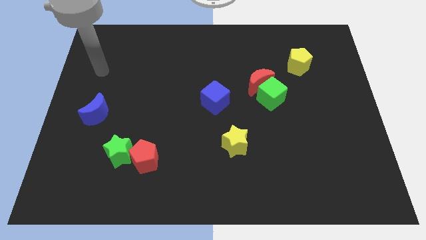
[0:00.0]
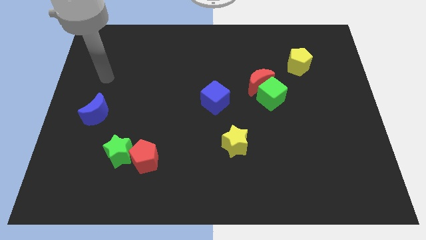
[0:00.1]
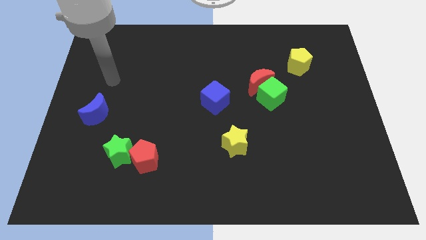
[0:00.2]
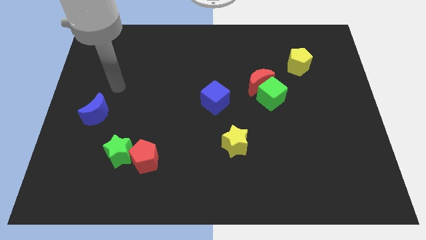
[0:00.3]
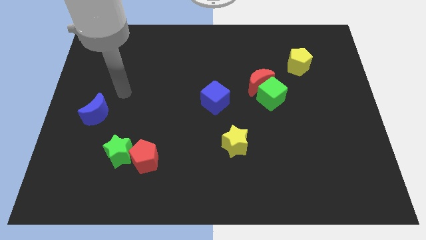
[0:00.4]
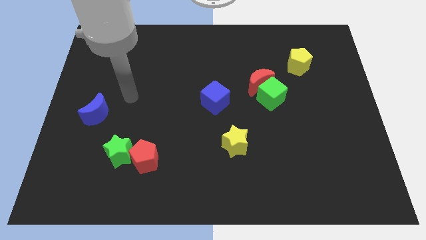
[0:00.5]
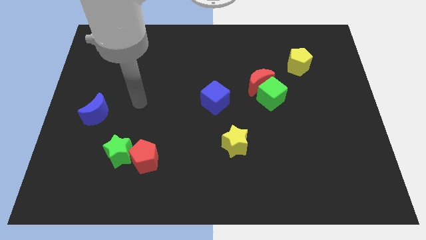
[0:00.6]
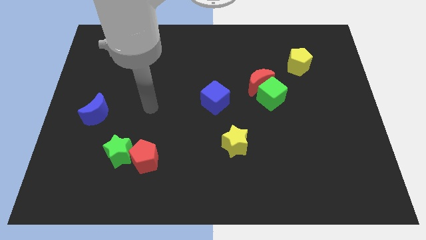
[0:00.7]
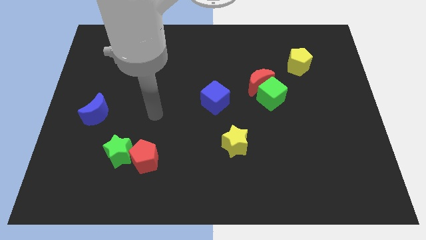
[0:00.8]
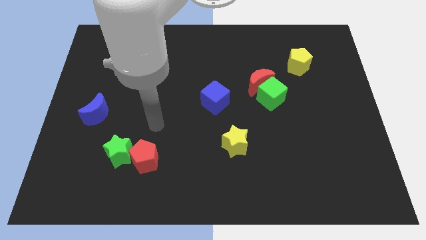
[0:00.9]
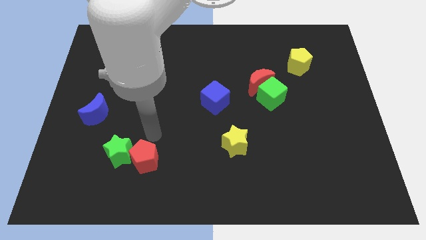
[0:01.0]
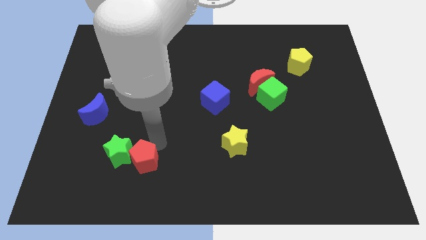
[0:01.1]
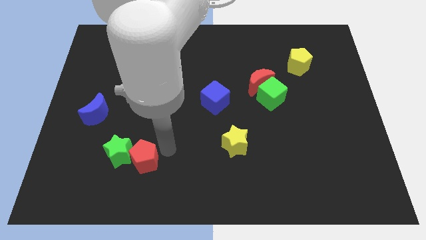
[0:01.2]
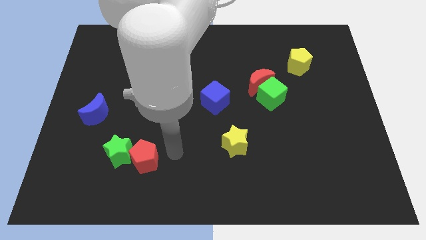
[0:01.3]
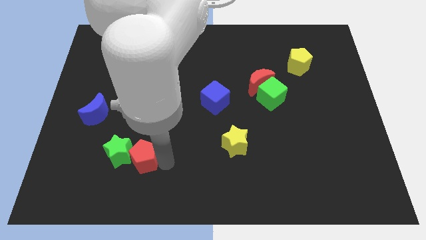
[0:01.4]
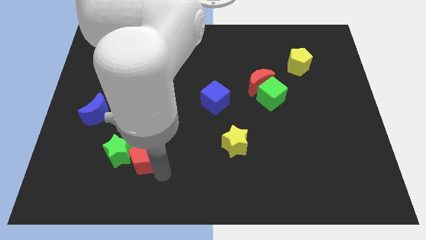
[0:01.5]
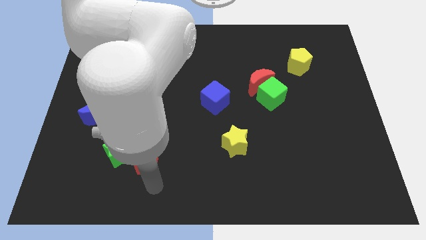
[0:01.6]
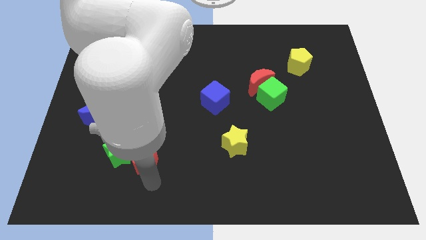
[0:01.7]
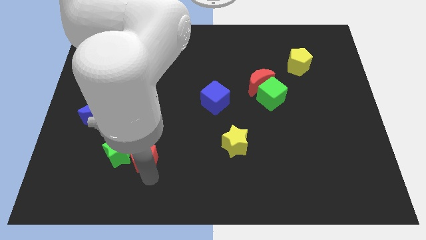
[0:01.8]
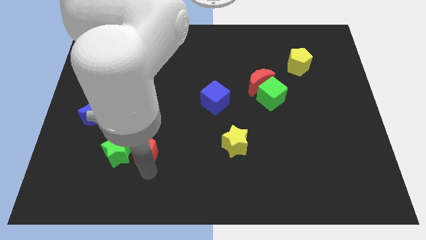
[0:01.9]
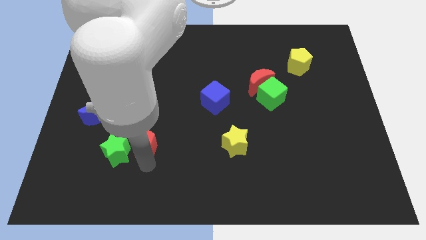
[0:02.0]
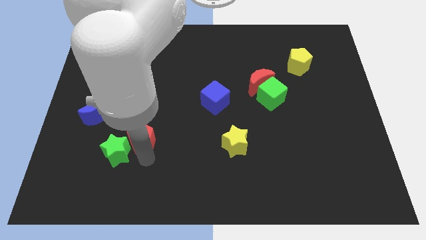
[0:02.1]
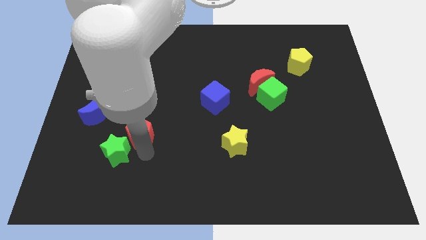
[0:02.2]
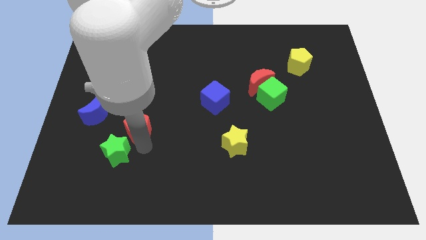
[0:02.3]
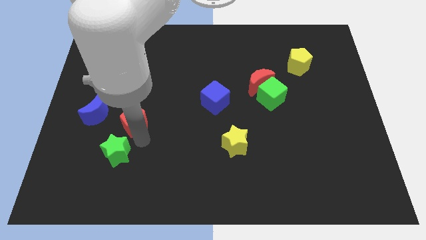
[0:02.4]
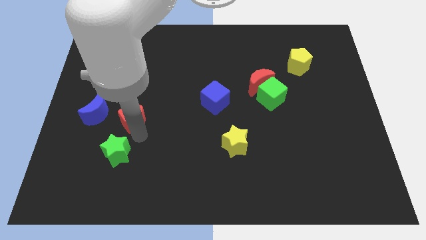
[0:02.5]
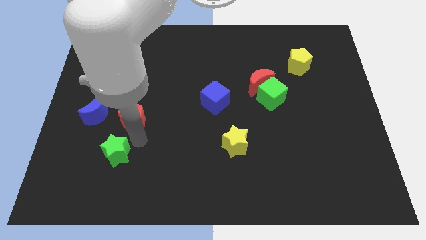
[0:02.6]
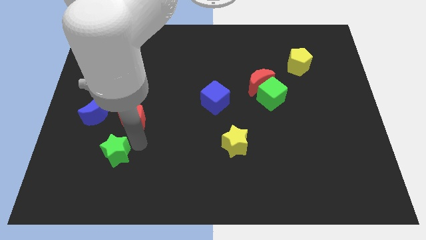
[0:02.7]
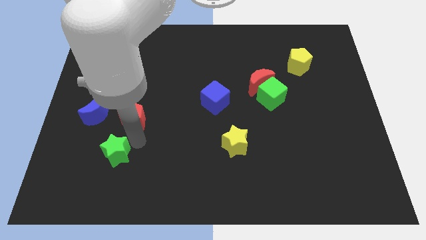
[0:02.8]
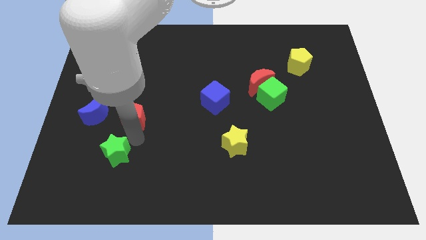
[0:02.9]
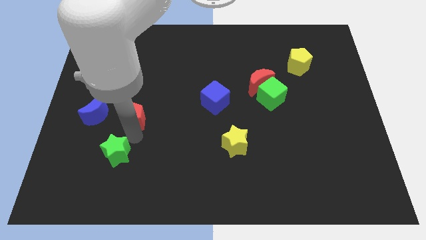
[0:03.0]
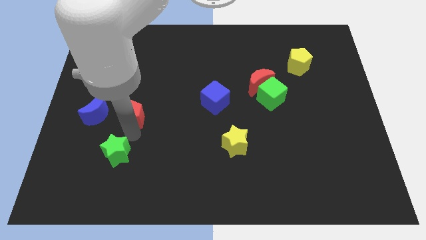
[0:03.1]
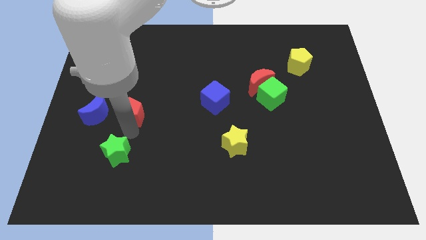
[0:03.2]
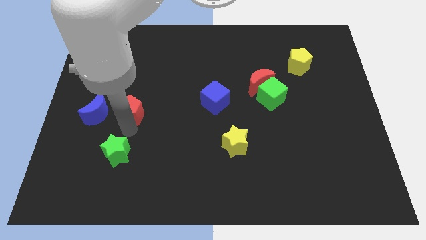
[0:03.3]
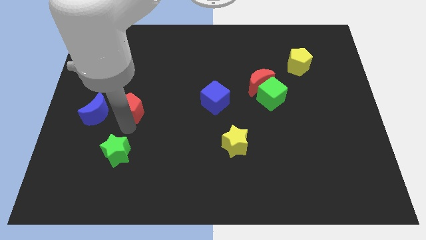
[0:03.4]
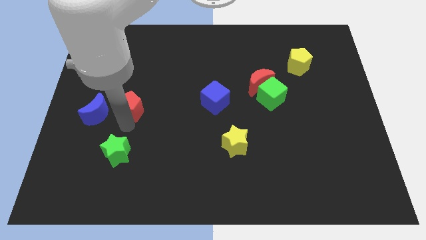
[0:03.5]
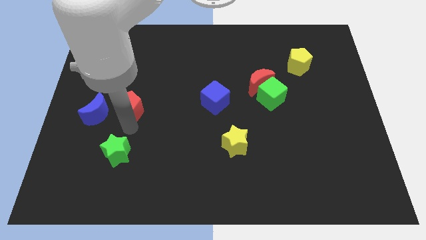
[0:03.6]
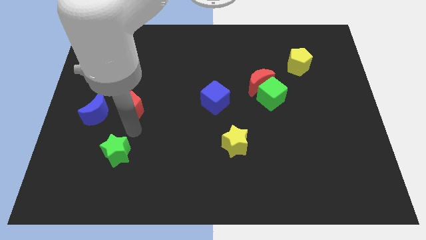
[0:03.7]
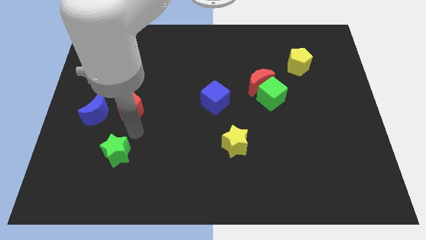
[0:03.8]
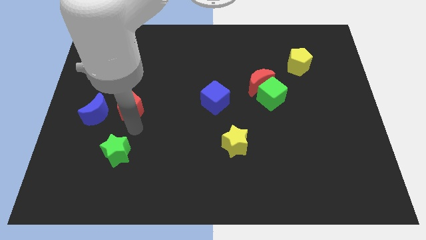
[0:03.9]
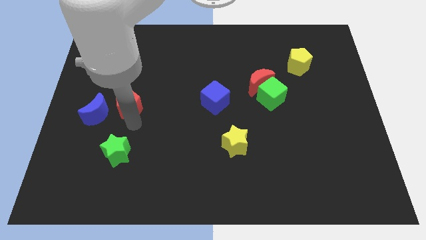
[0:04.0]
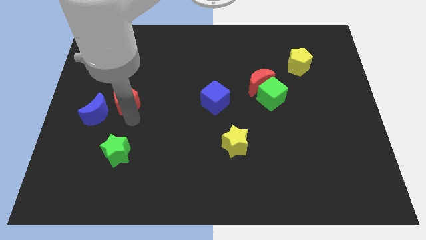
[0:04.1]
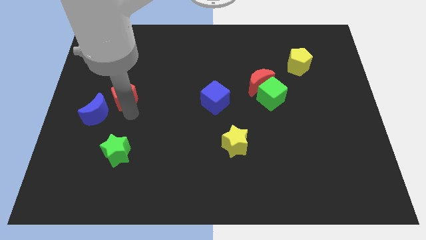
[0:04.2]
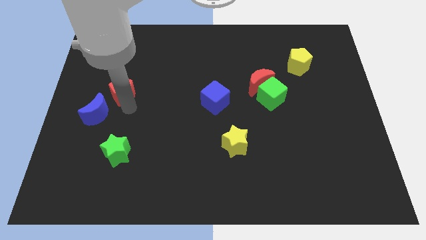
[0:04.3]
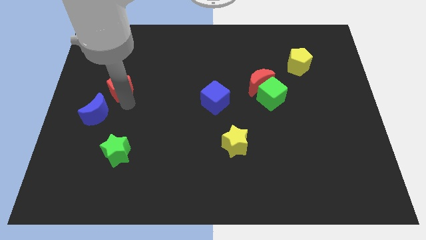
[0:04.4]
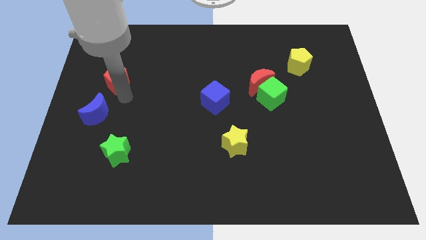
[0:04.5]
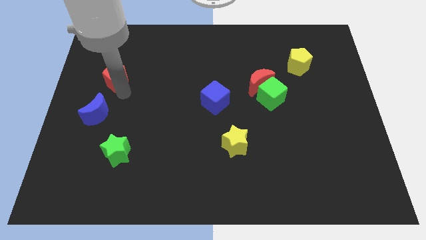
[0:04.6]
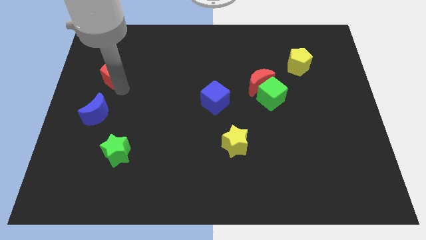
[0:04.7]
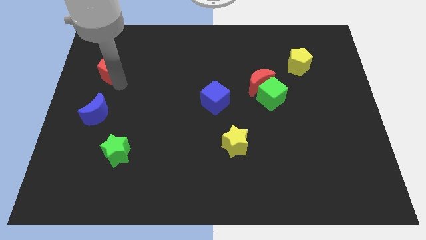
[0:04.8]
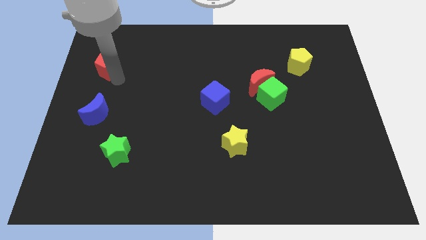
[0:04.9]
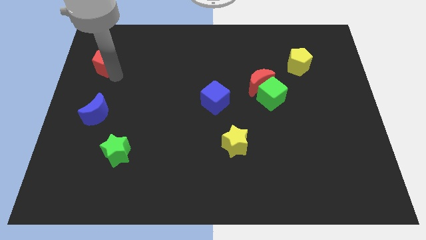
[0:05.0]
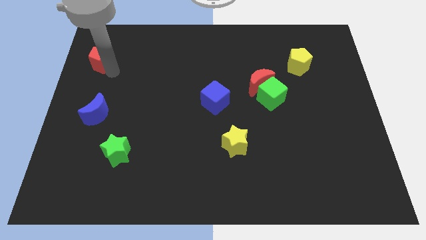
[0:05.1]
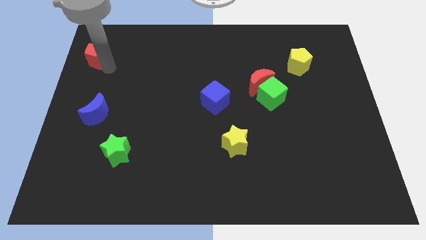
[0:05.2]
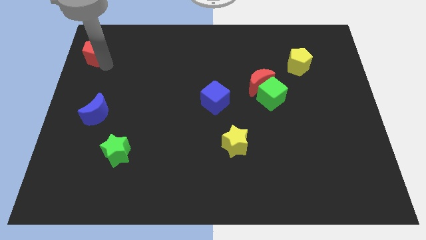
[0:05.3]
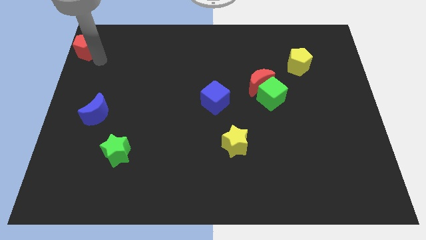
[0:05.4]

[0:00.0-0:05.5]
put the red pentagon to the top left

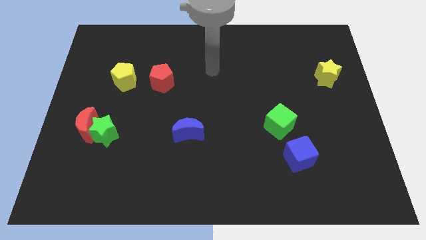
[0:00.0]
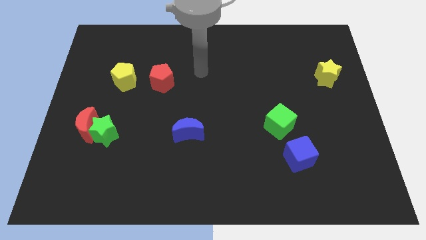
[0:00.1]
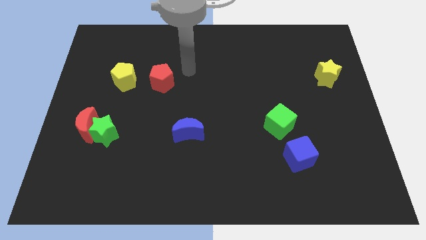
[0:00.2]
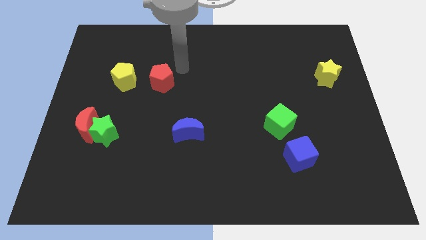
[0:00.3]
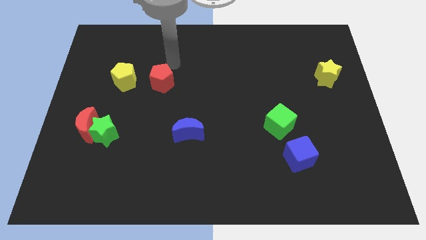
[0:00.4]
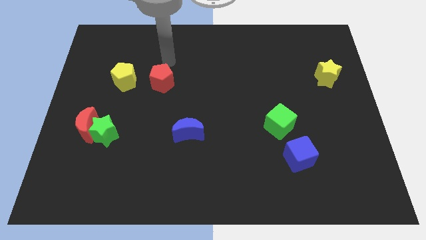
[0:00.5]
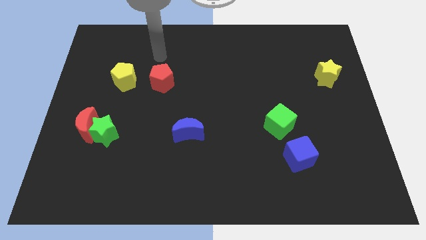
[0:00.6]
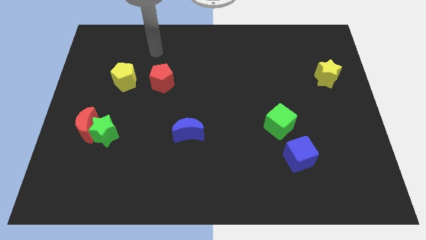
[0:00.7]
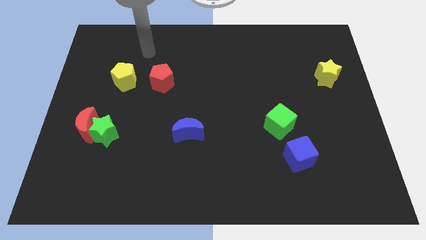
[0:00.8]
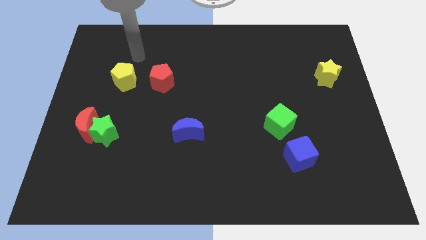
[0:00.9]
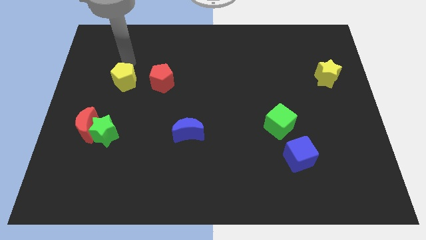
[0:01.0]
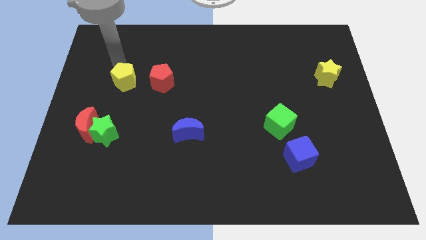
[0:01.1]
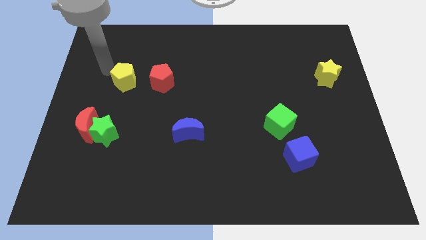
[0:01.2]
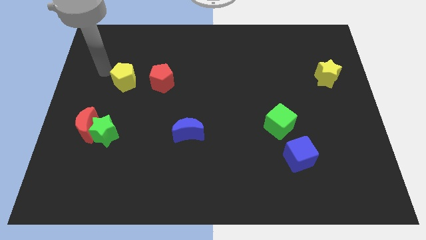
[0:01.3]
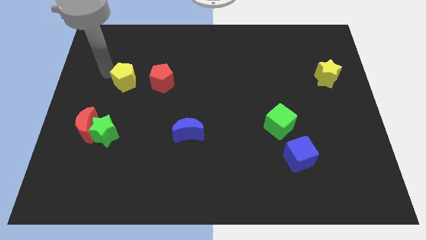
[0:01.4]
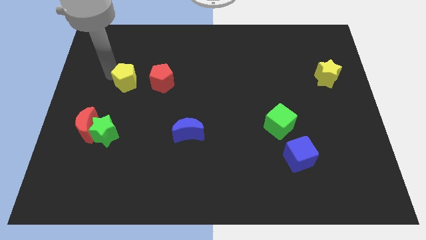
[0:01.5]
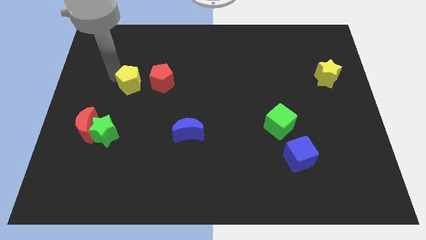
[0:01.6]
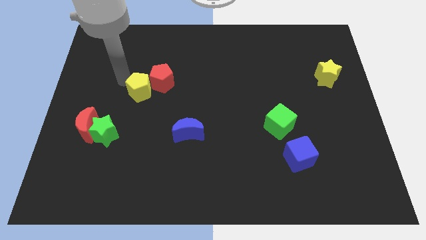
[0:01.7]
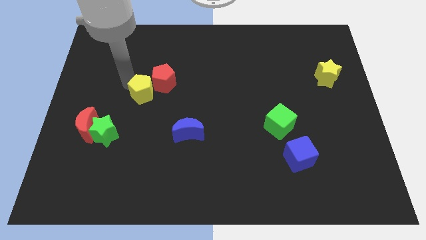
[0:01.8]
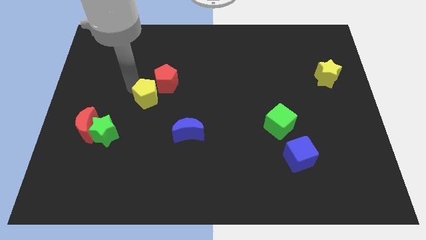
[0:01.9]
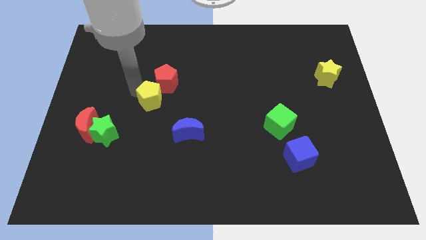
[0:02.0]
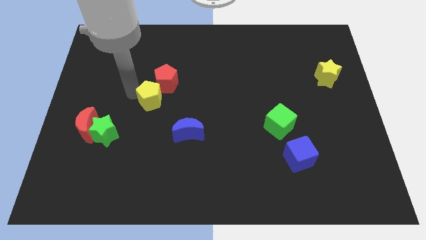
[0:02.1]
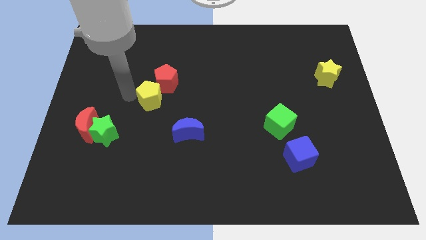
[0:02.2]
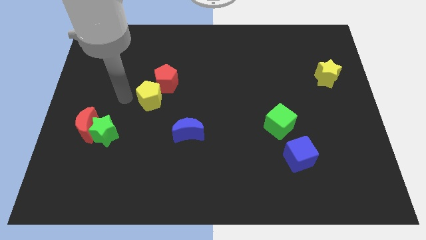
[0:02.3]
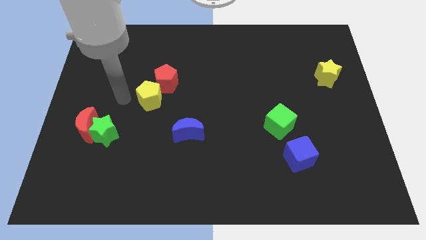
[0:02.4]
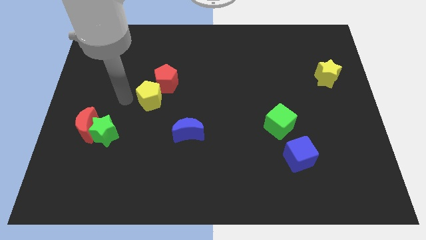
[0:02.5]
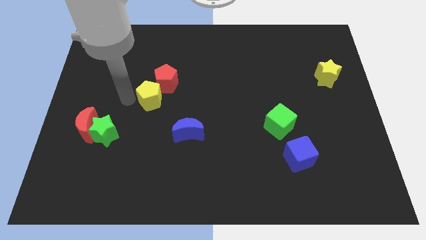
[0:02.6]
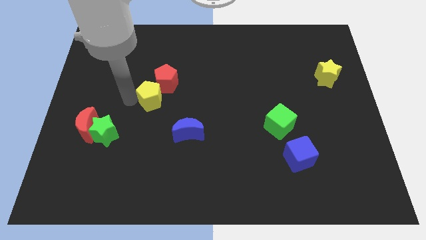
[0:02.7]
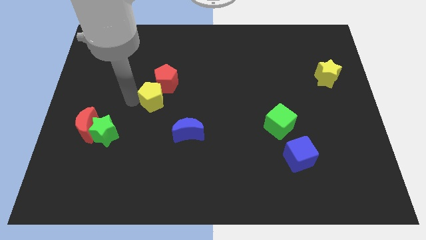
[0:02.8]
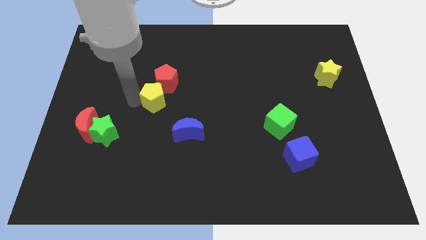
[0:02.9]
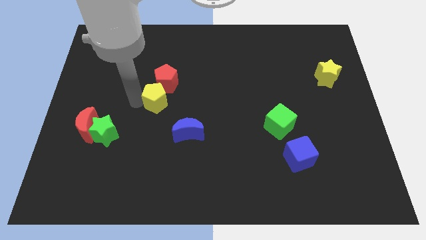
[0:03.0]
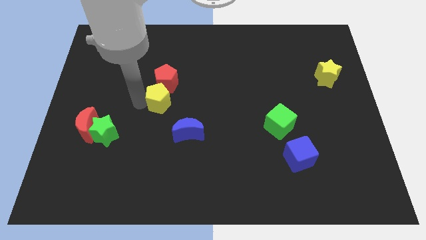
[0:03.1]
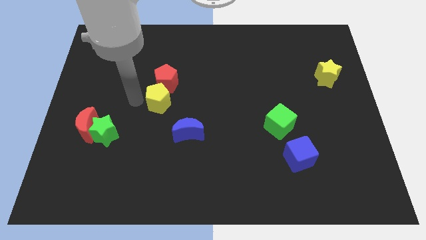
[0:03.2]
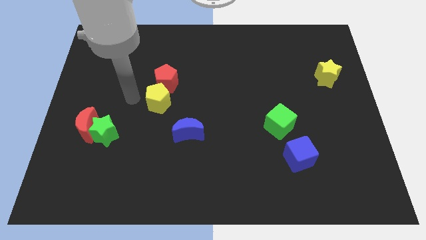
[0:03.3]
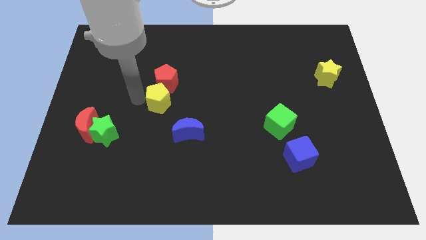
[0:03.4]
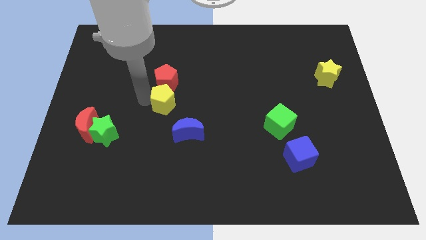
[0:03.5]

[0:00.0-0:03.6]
push the yellow pentagon to the middle
